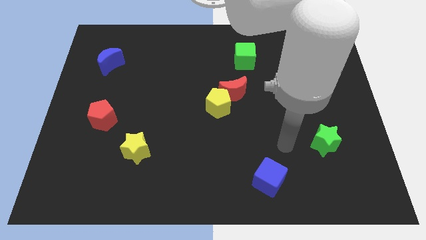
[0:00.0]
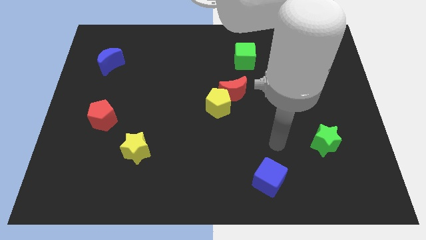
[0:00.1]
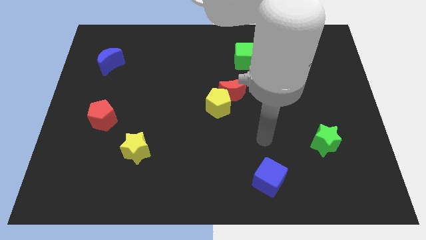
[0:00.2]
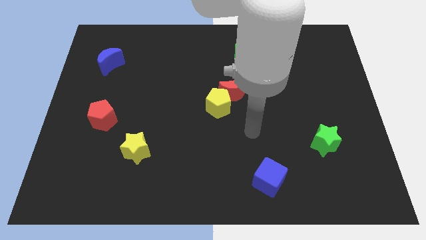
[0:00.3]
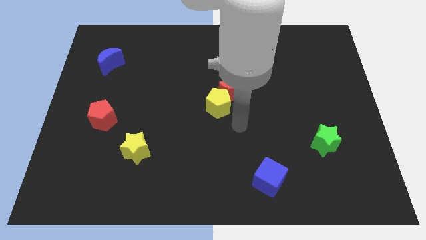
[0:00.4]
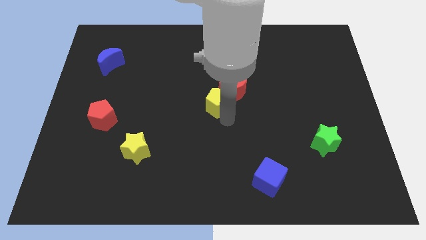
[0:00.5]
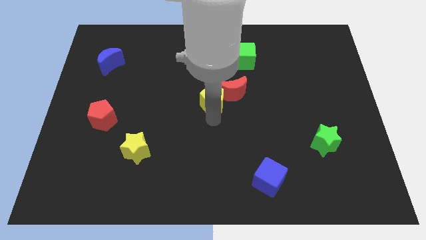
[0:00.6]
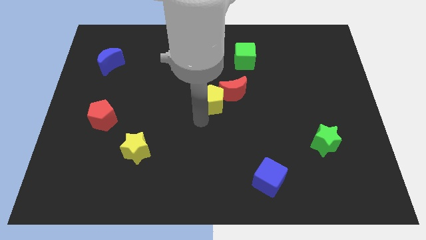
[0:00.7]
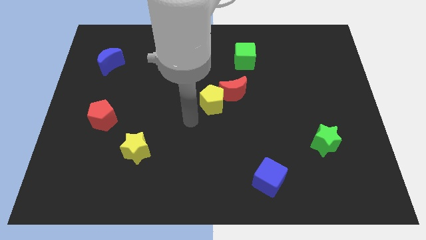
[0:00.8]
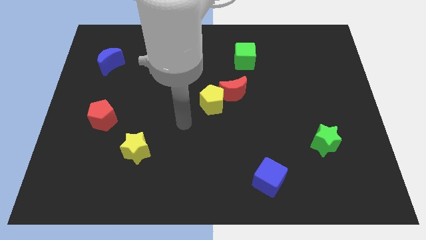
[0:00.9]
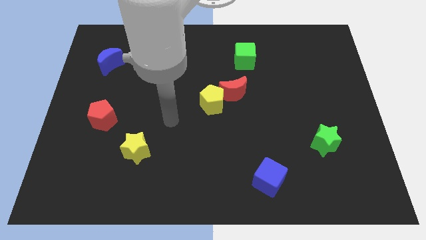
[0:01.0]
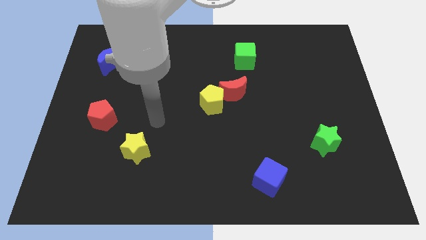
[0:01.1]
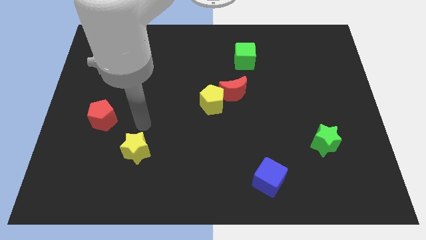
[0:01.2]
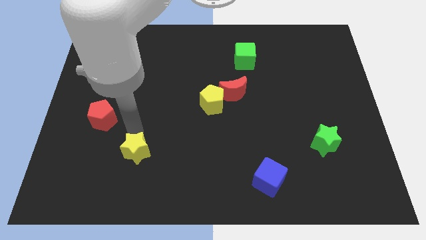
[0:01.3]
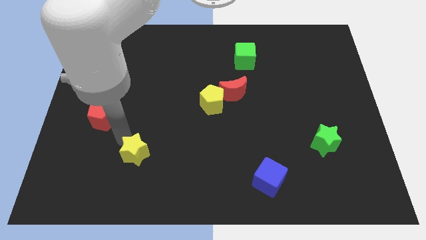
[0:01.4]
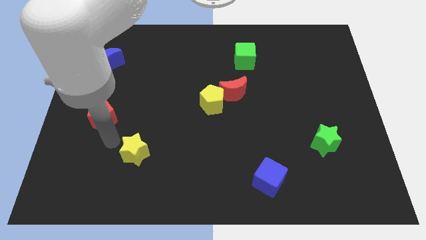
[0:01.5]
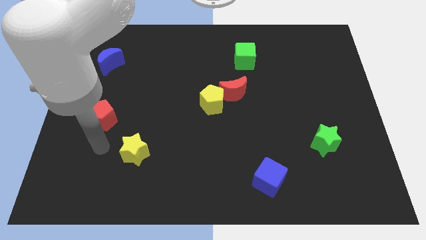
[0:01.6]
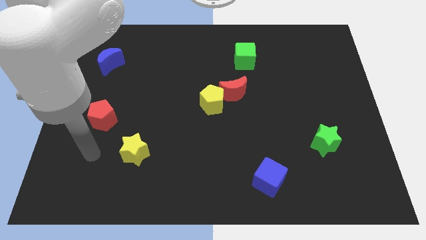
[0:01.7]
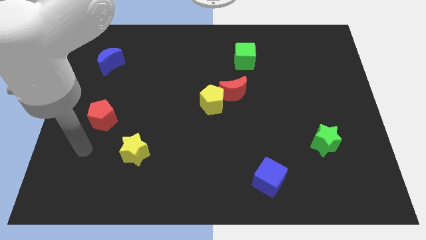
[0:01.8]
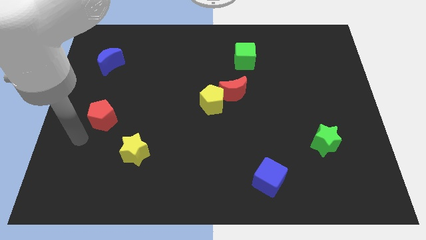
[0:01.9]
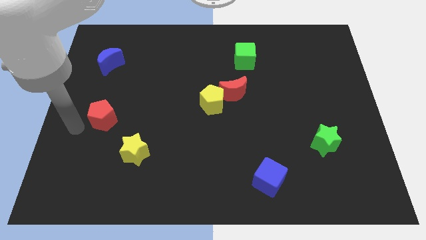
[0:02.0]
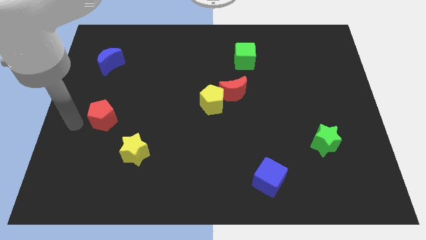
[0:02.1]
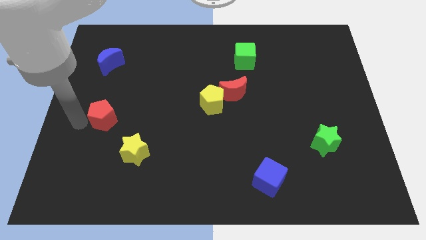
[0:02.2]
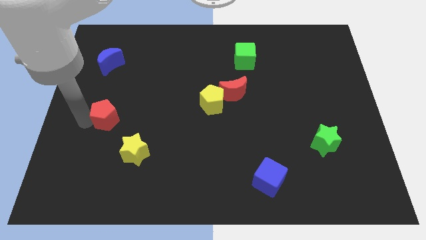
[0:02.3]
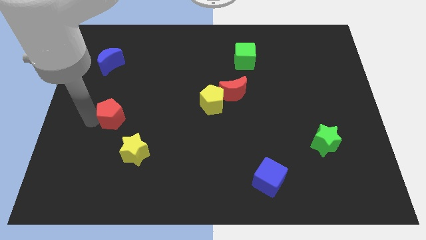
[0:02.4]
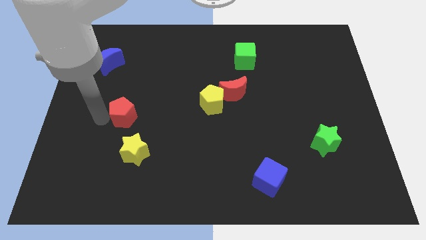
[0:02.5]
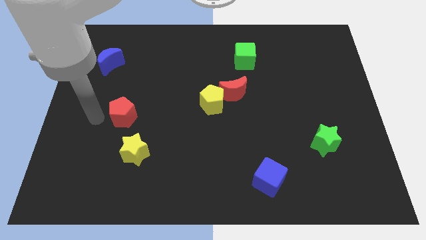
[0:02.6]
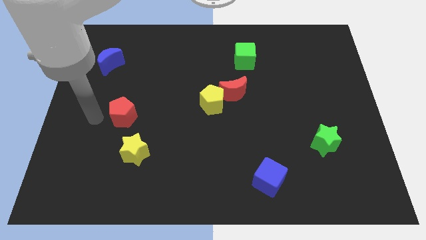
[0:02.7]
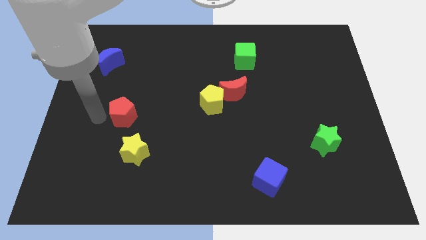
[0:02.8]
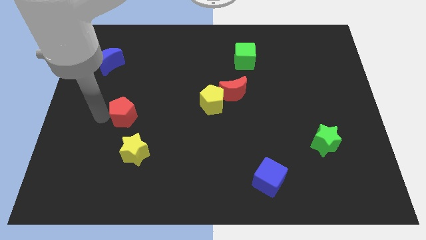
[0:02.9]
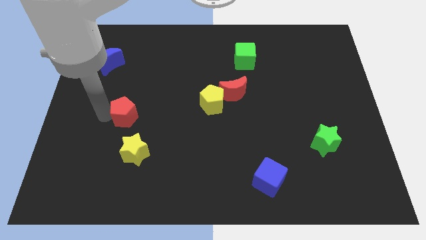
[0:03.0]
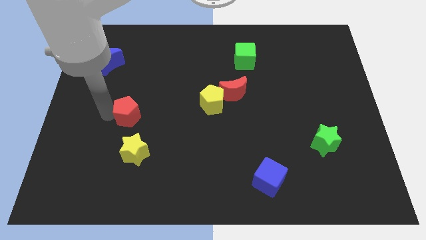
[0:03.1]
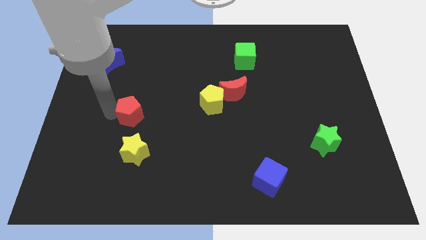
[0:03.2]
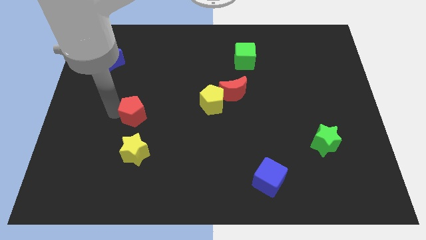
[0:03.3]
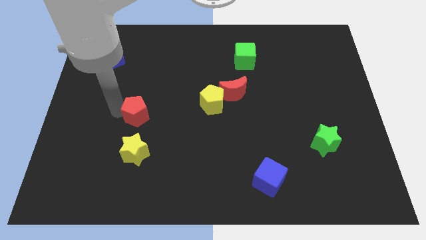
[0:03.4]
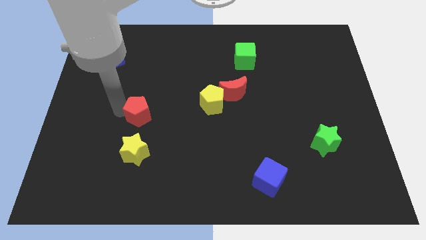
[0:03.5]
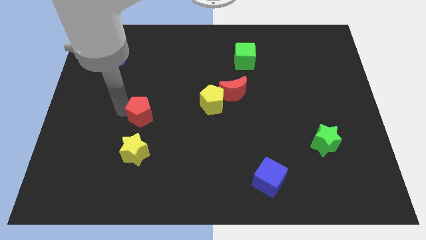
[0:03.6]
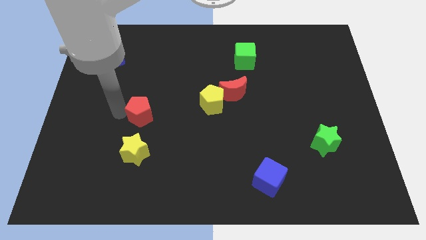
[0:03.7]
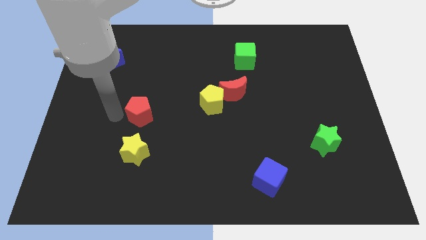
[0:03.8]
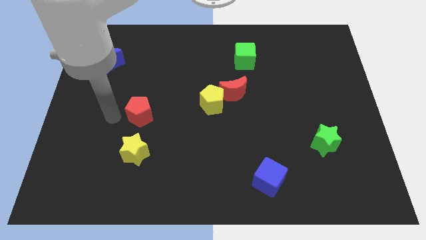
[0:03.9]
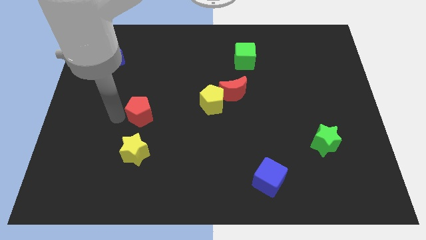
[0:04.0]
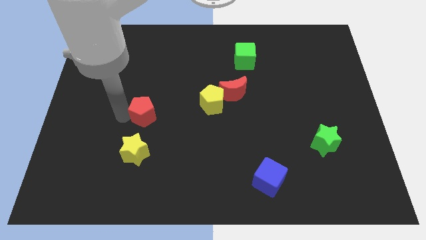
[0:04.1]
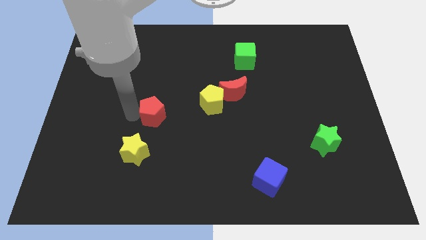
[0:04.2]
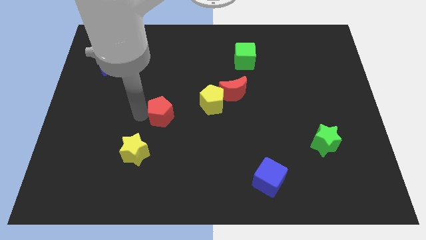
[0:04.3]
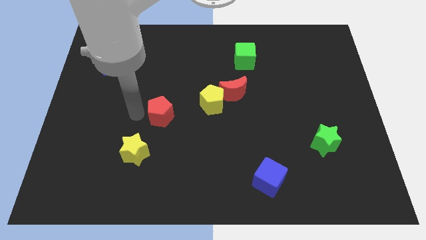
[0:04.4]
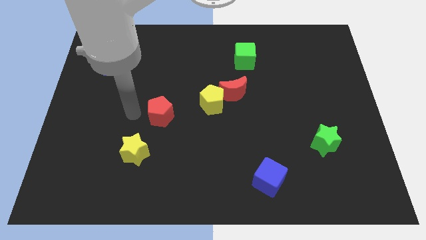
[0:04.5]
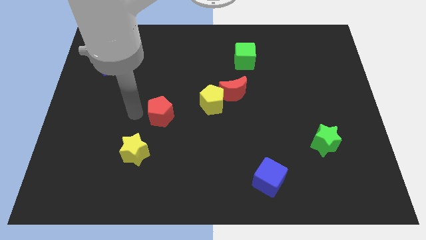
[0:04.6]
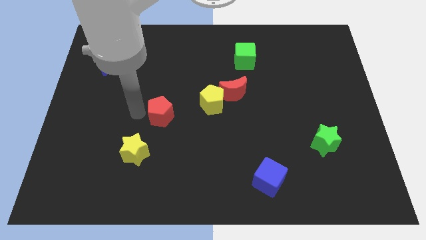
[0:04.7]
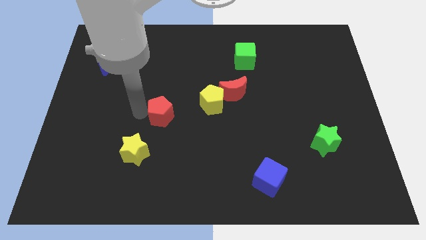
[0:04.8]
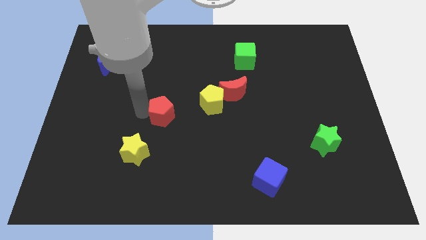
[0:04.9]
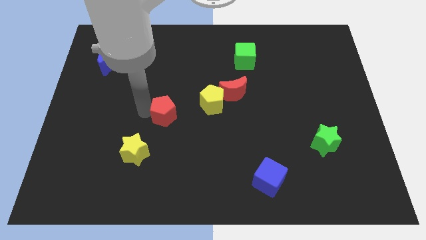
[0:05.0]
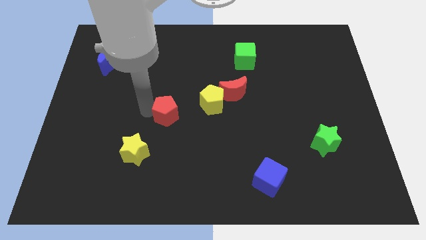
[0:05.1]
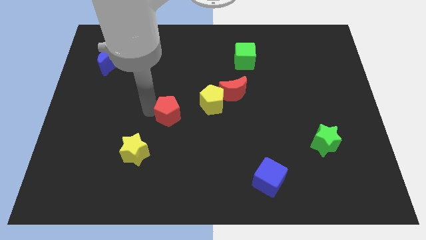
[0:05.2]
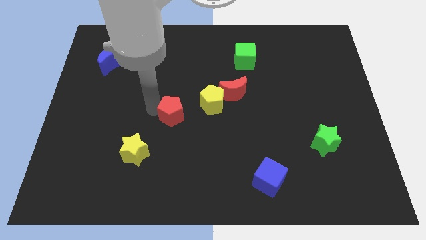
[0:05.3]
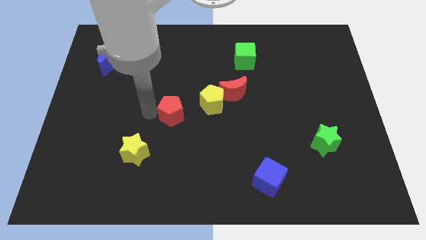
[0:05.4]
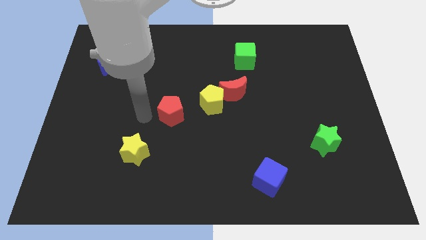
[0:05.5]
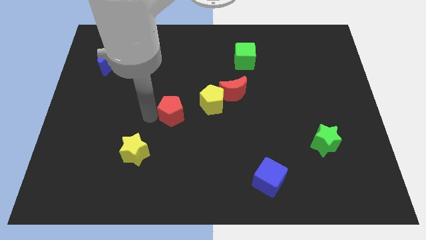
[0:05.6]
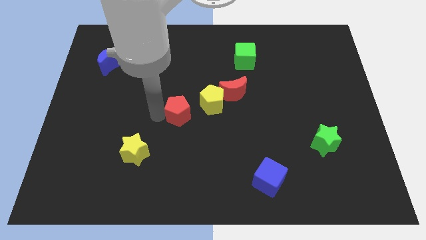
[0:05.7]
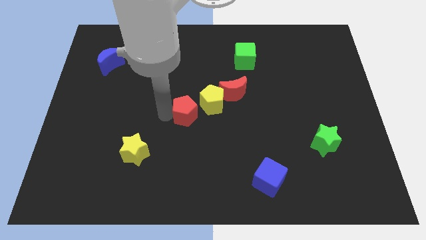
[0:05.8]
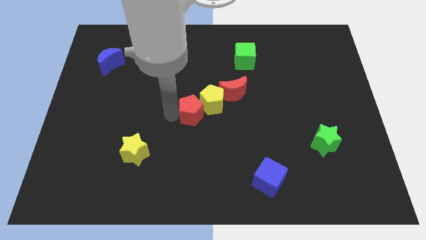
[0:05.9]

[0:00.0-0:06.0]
move the red pentagon to the yellow pentagon

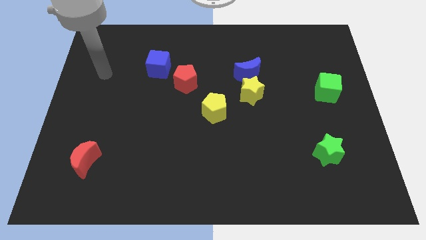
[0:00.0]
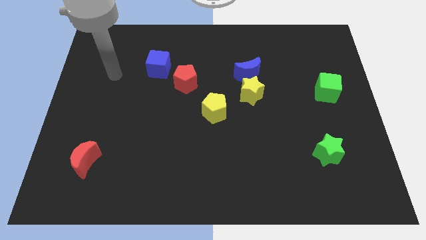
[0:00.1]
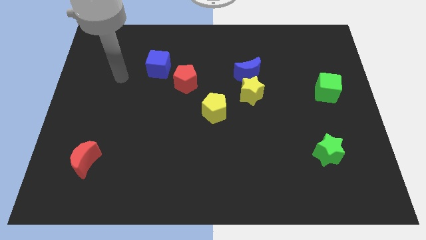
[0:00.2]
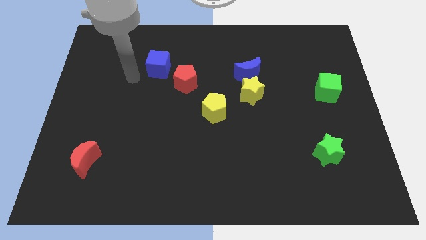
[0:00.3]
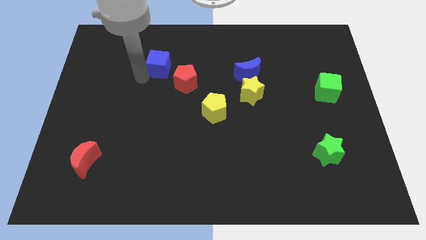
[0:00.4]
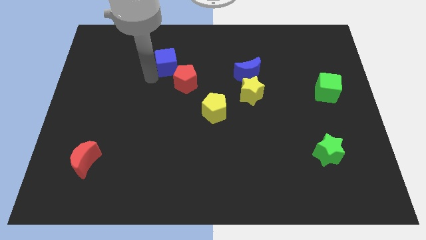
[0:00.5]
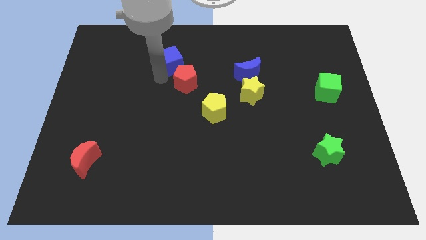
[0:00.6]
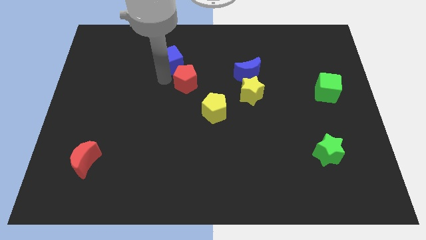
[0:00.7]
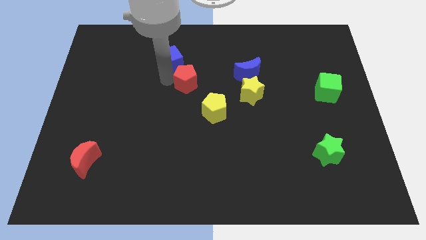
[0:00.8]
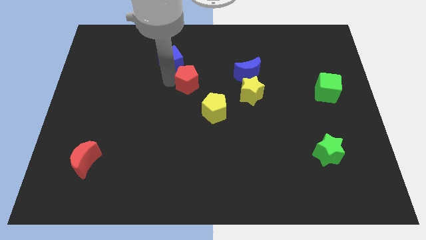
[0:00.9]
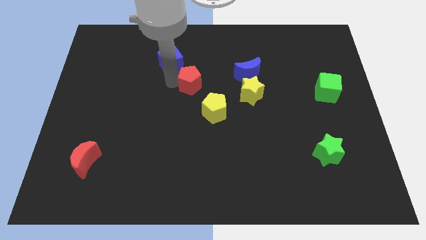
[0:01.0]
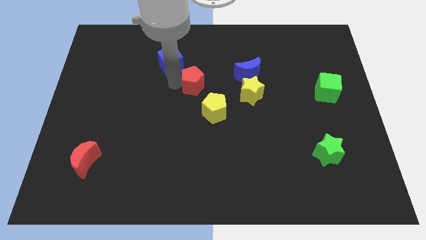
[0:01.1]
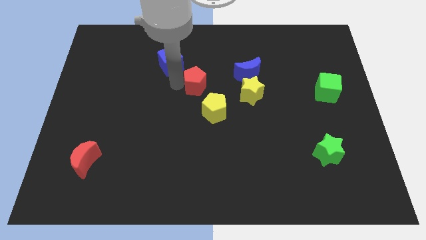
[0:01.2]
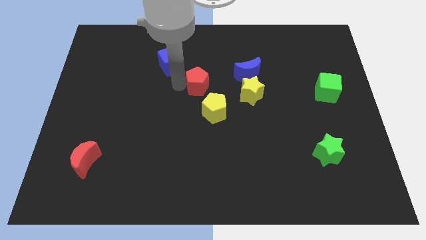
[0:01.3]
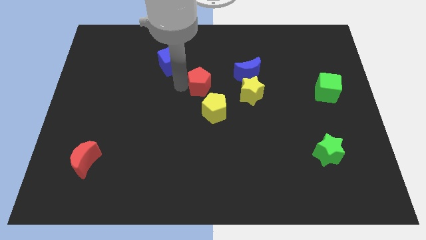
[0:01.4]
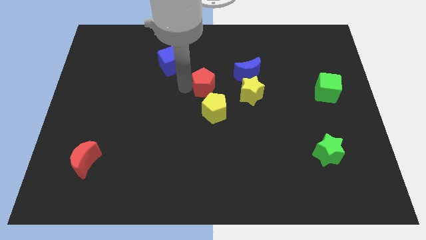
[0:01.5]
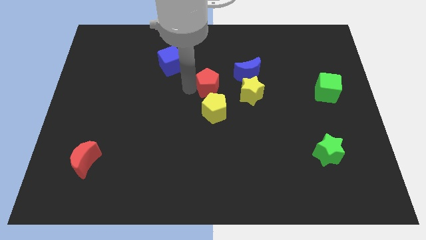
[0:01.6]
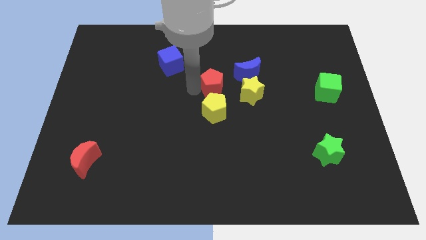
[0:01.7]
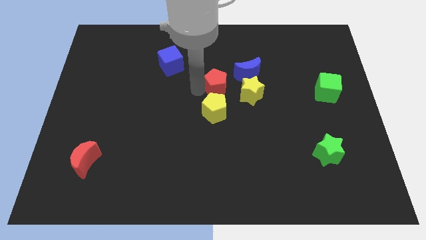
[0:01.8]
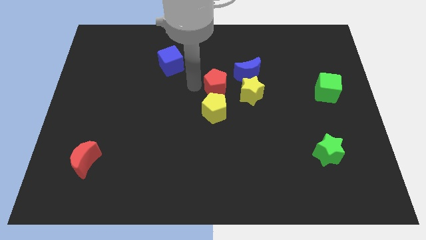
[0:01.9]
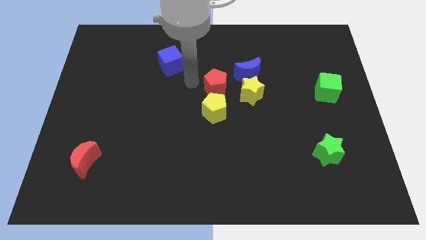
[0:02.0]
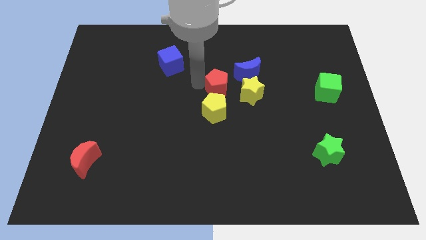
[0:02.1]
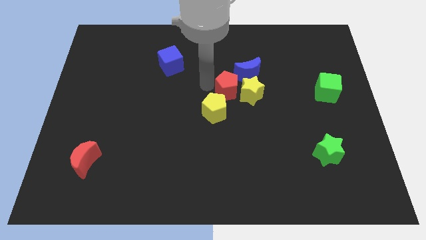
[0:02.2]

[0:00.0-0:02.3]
put the red pentagon towards the yellow star
